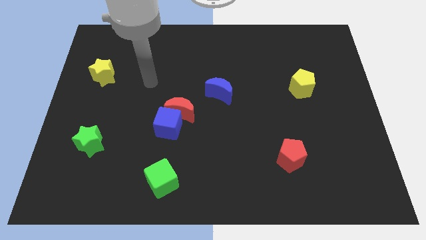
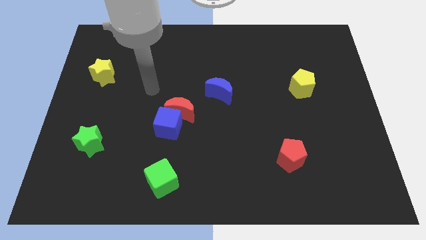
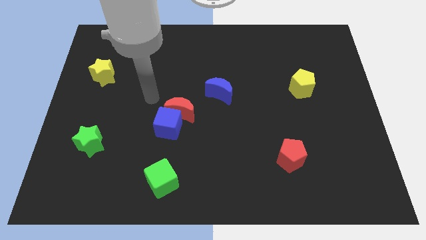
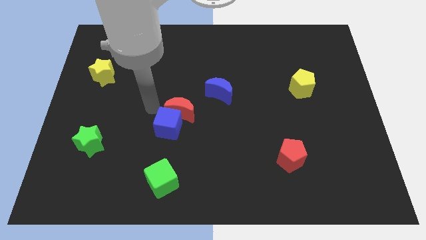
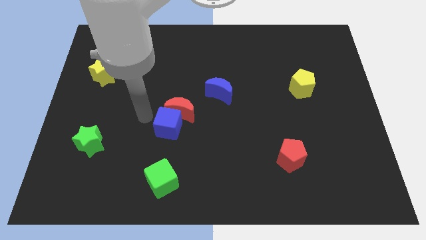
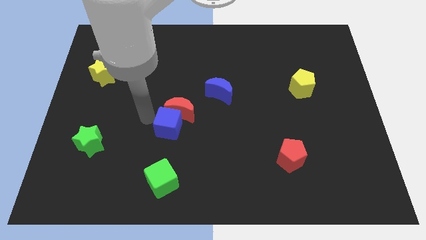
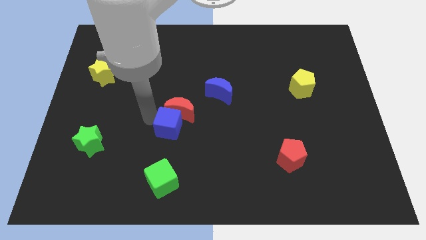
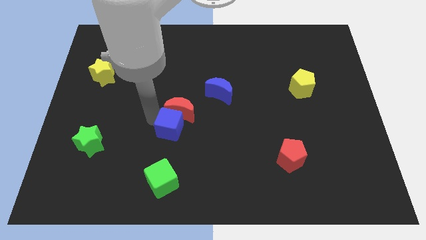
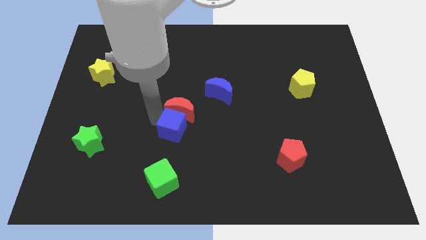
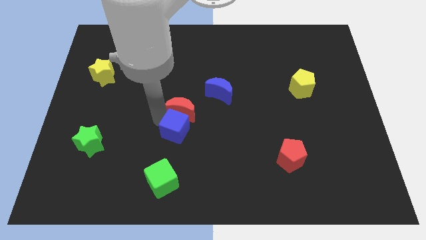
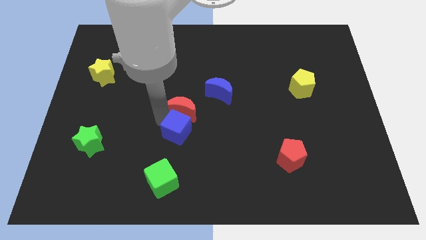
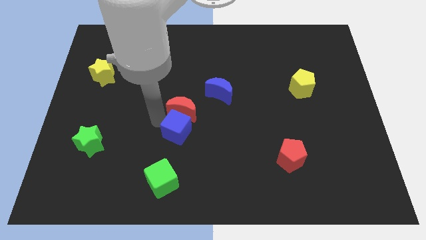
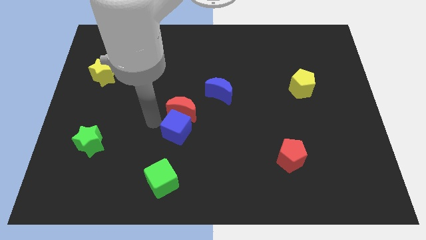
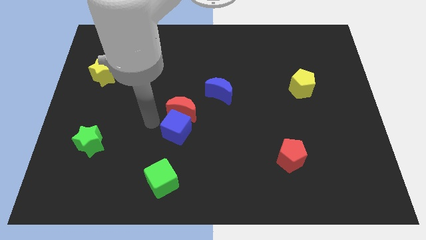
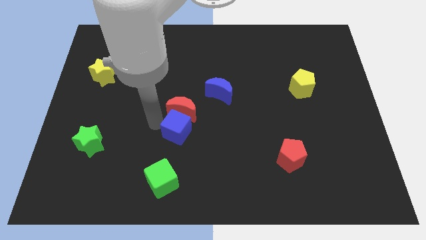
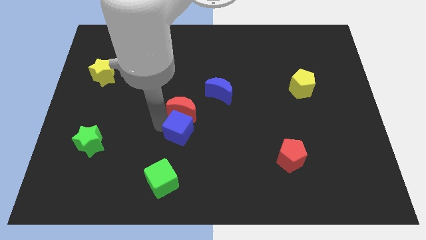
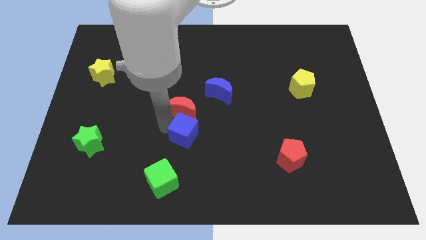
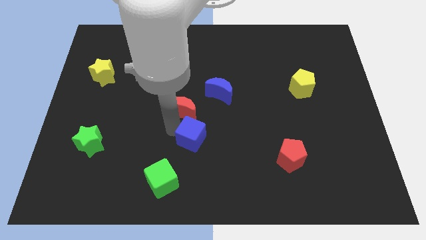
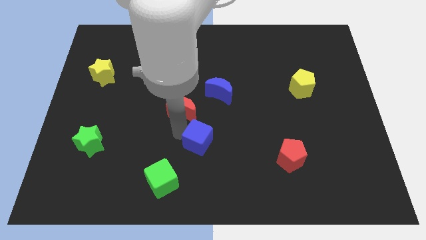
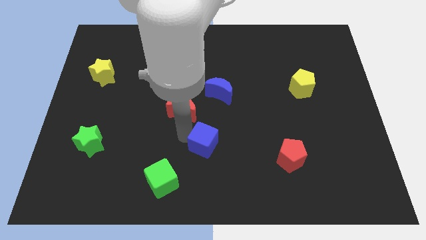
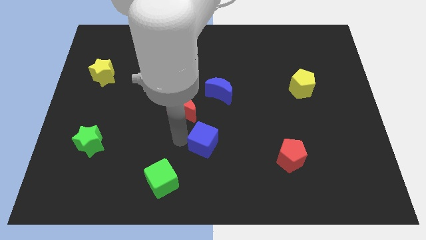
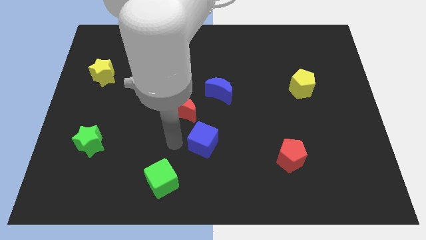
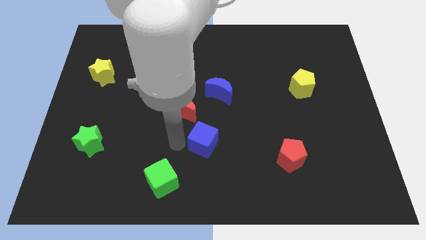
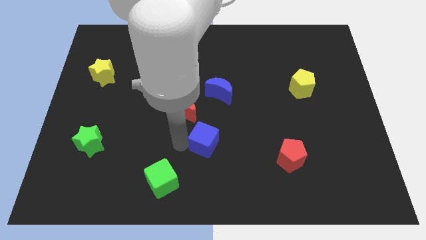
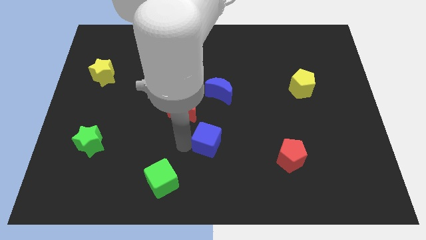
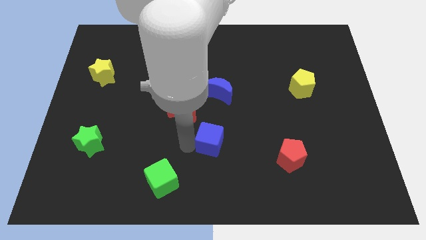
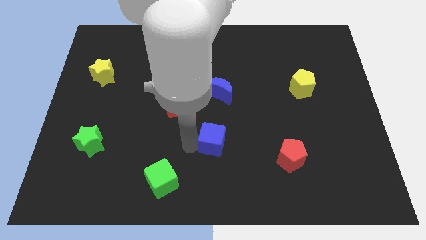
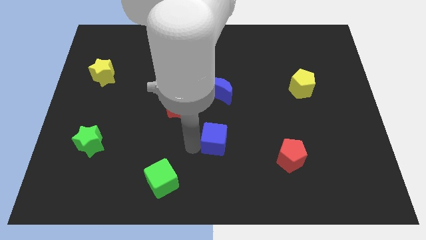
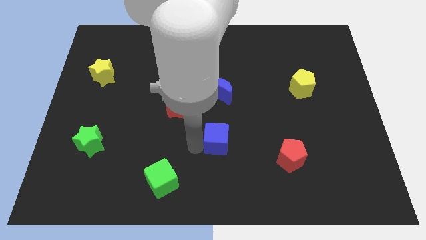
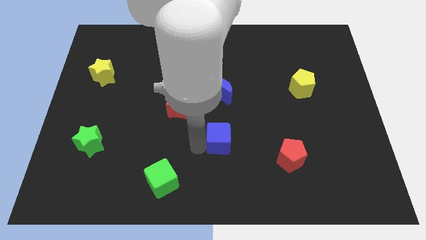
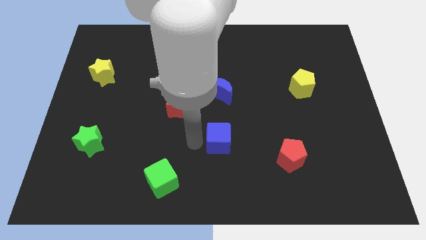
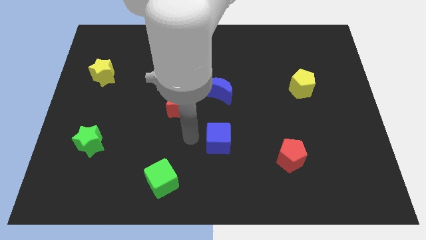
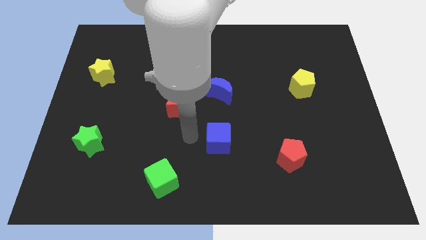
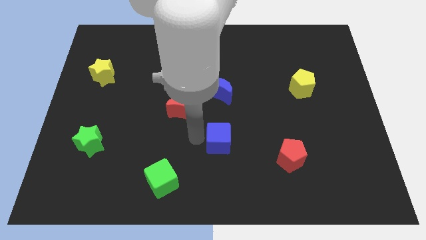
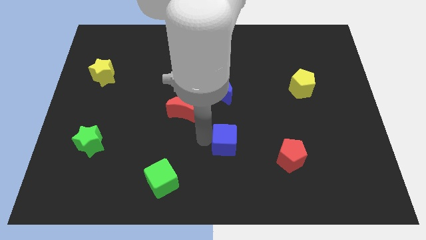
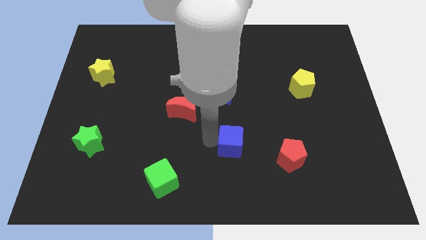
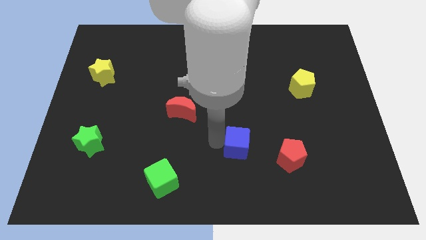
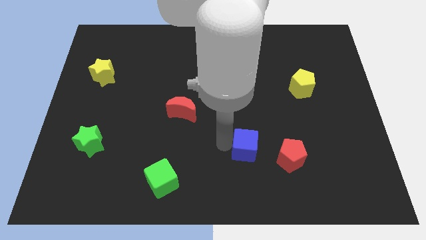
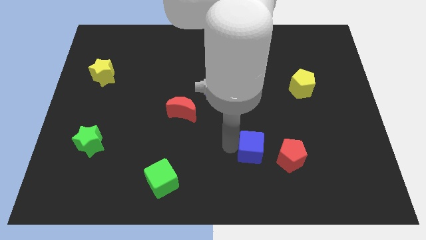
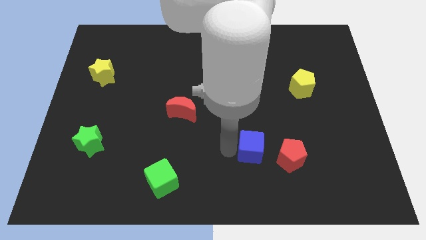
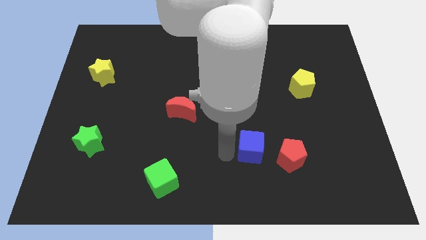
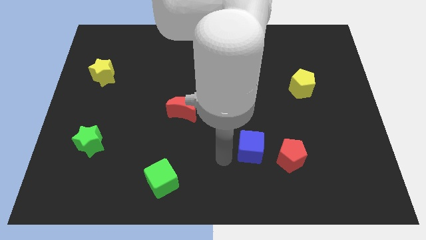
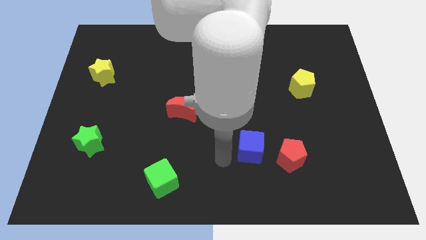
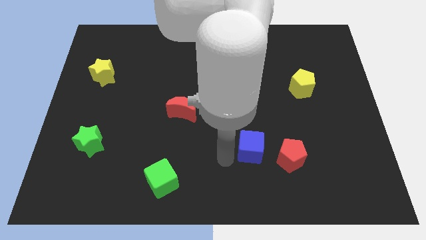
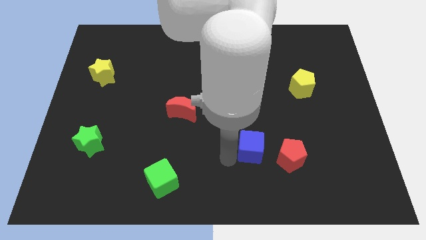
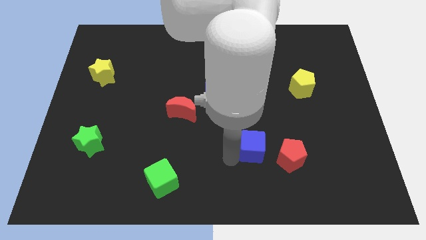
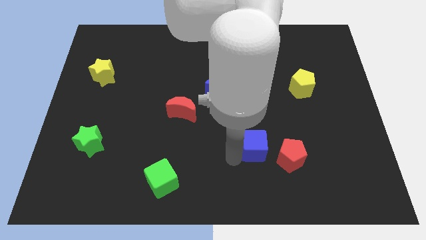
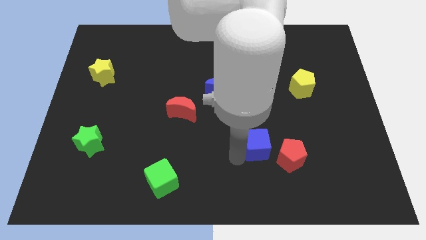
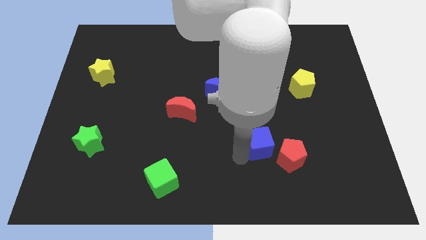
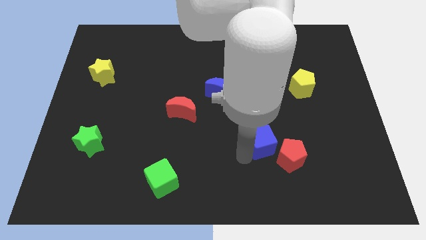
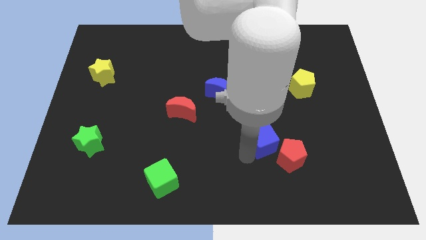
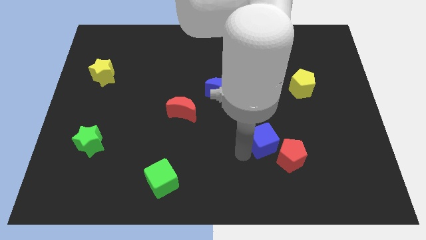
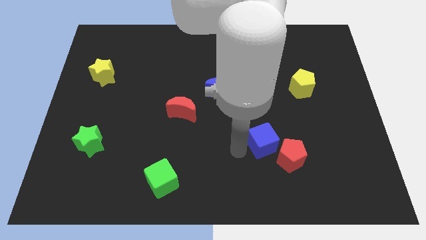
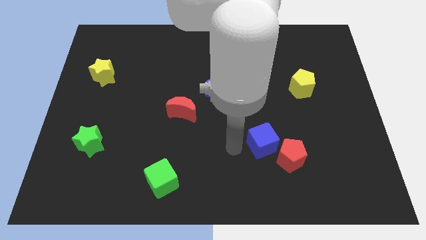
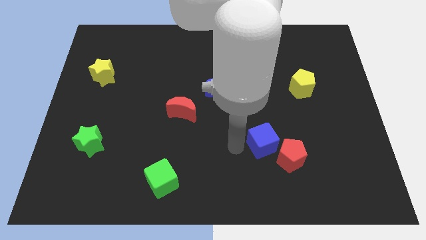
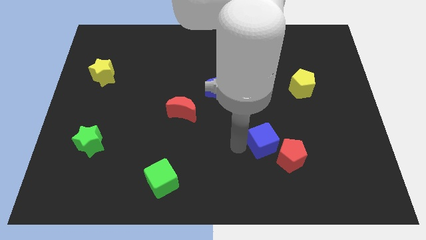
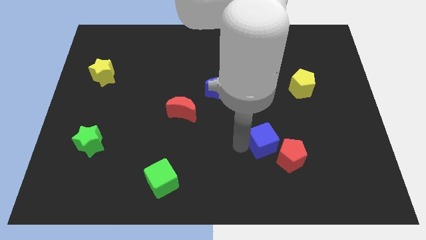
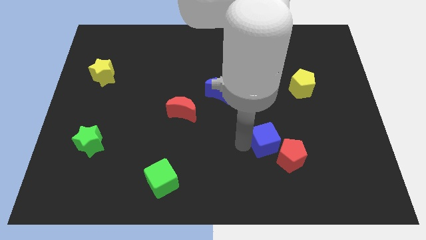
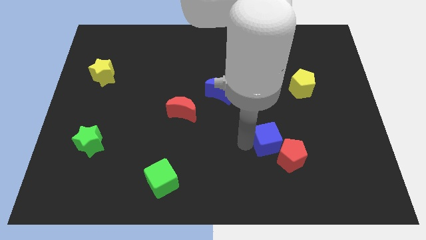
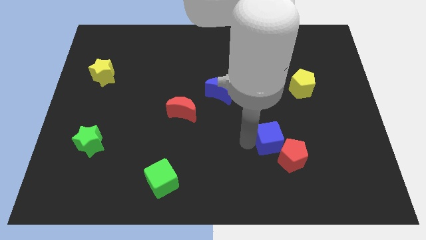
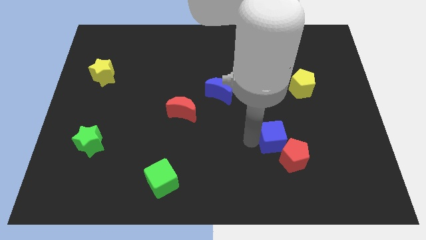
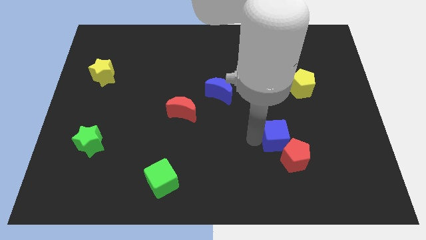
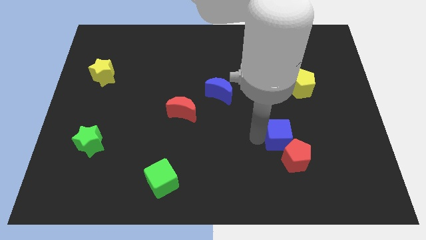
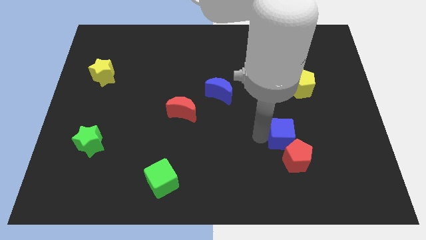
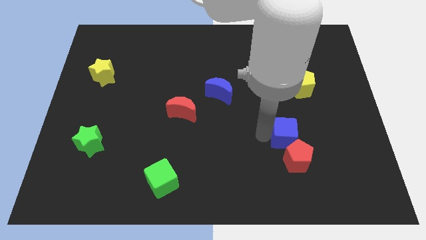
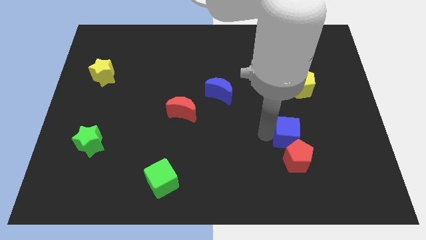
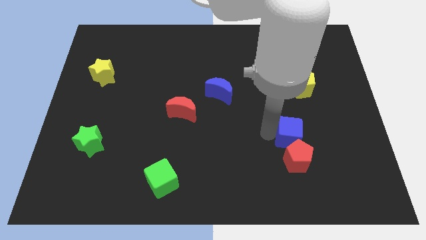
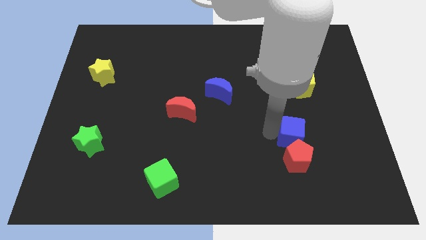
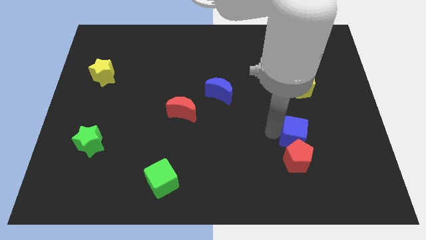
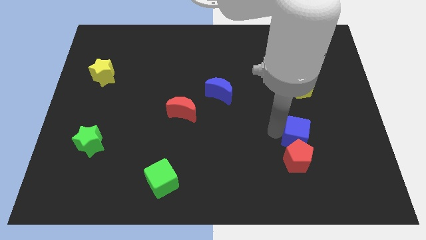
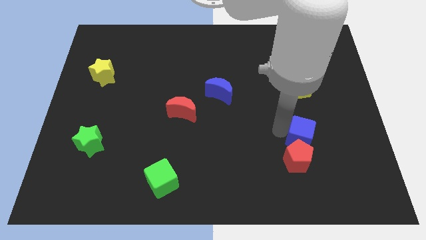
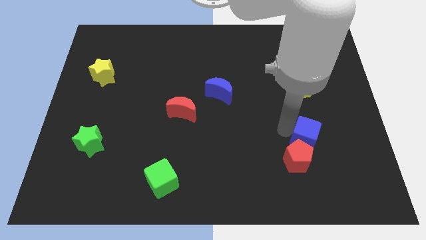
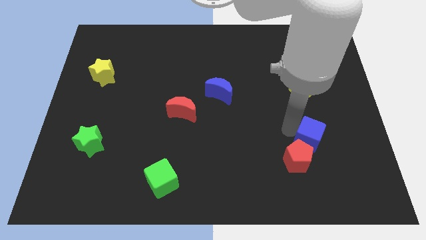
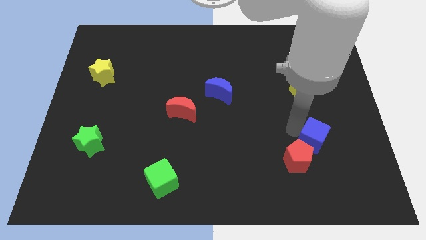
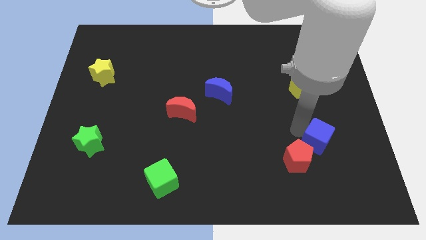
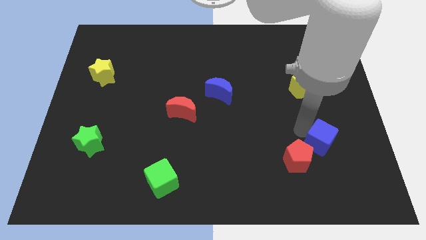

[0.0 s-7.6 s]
move the blue cube to the right side of the red pentagon

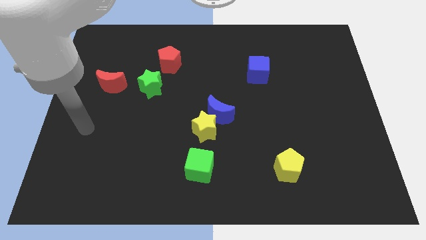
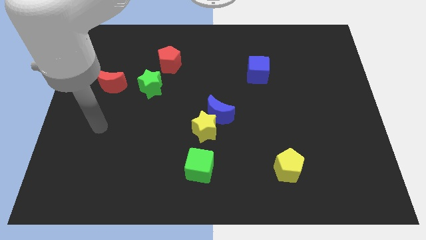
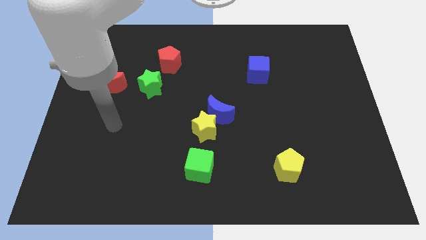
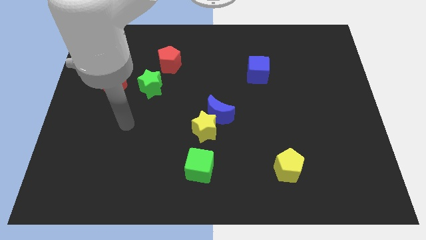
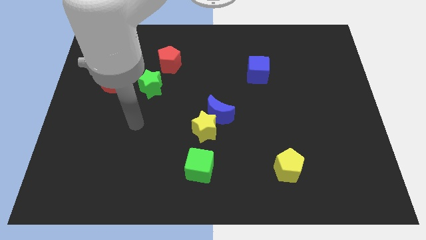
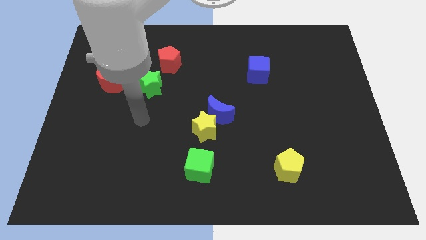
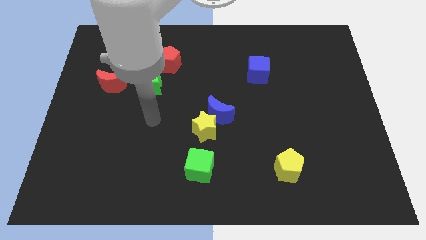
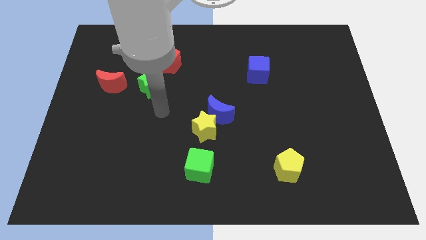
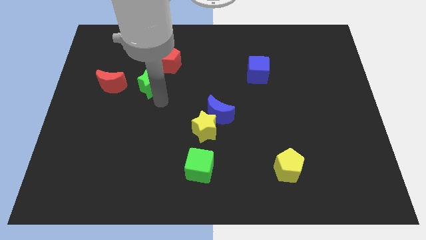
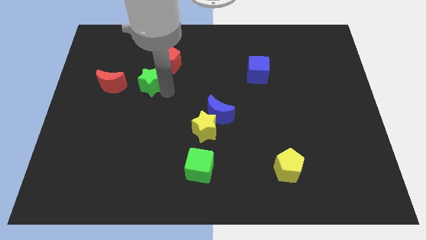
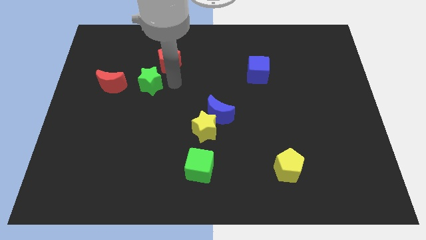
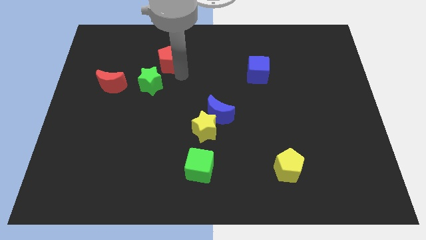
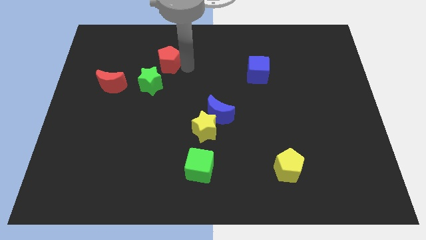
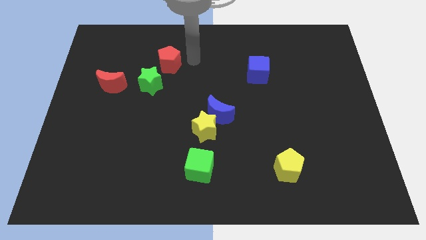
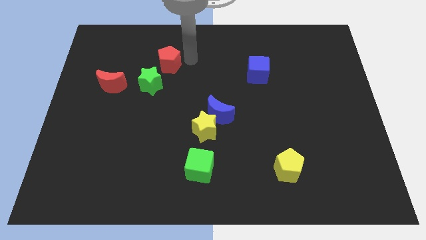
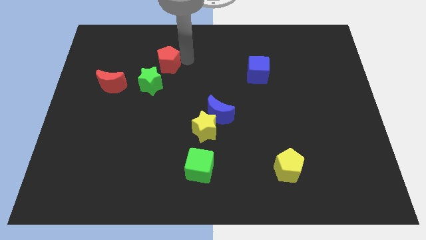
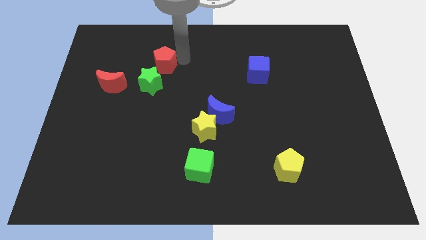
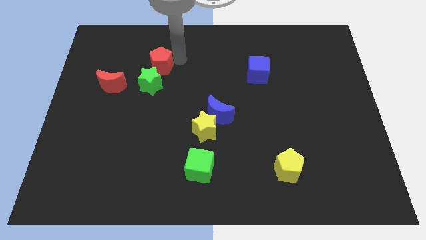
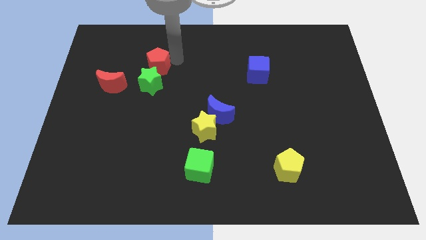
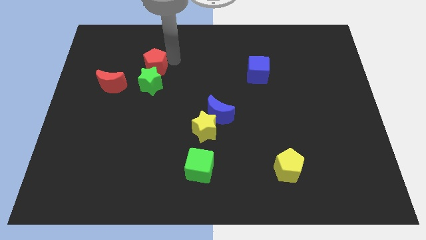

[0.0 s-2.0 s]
move the red pentagon to the top right of the red moon
